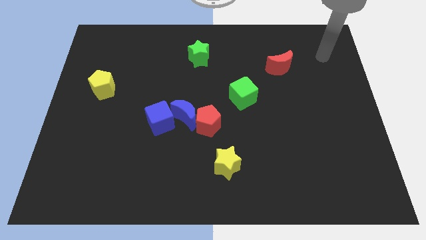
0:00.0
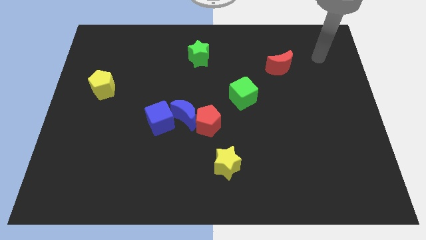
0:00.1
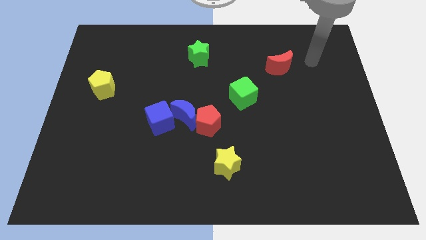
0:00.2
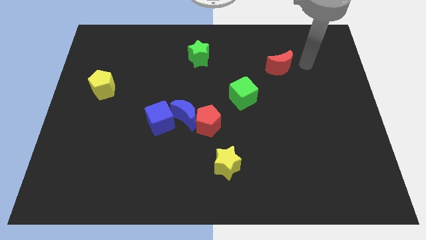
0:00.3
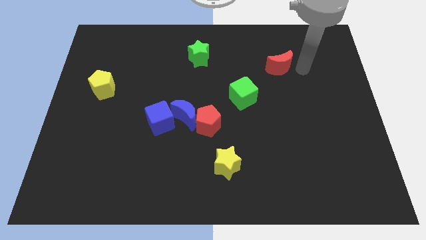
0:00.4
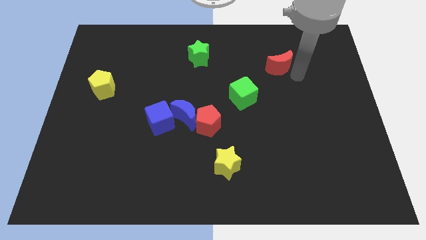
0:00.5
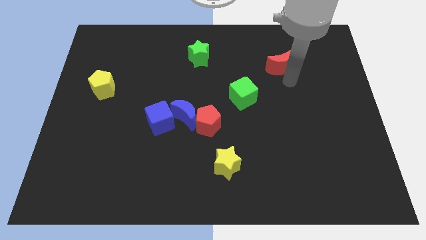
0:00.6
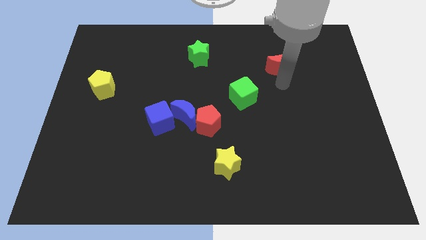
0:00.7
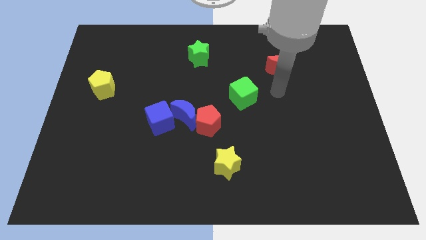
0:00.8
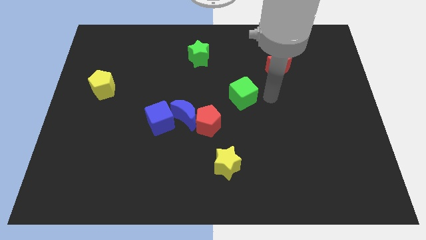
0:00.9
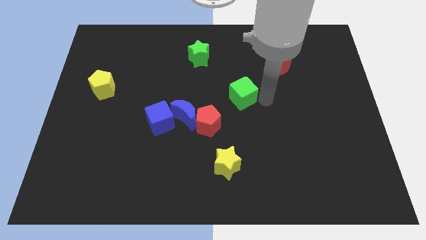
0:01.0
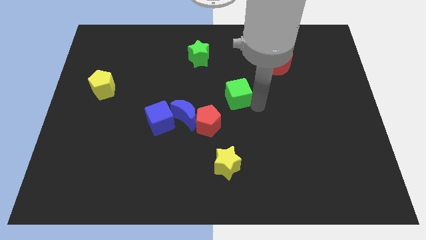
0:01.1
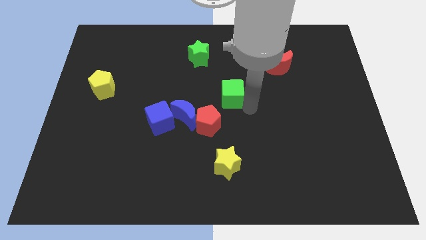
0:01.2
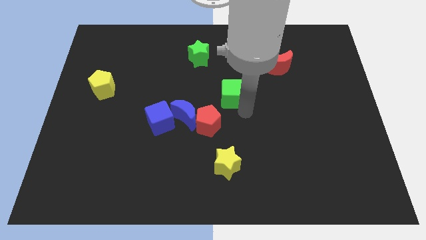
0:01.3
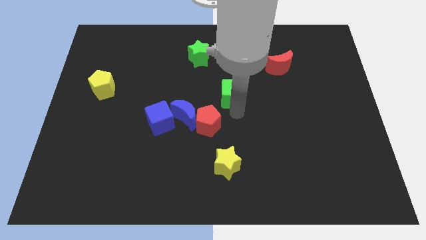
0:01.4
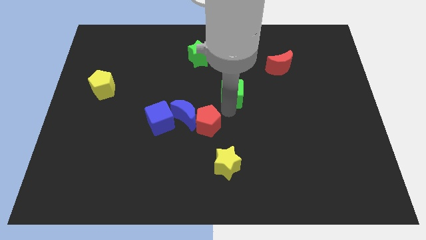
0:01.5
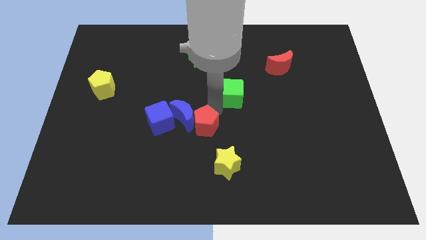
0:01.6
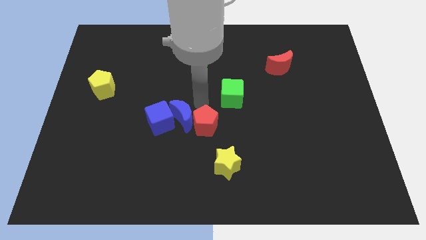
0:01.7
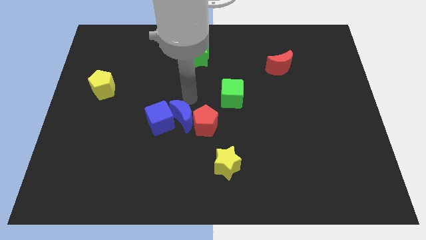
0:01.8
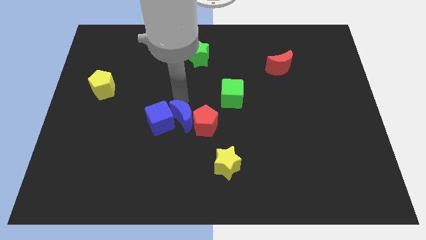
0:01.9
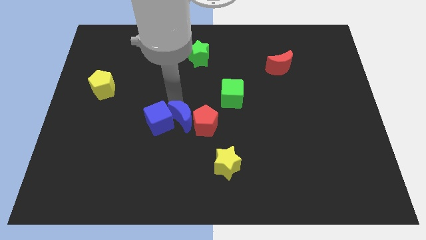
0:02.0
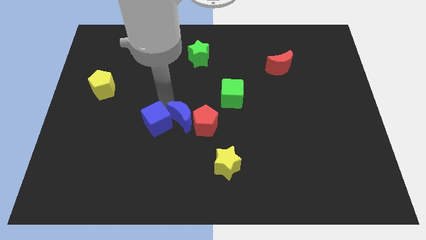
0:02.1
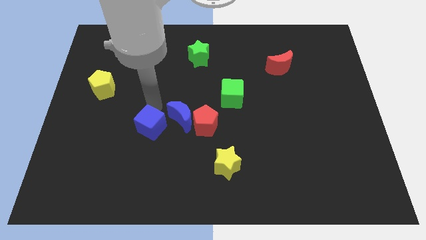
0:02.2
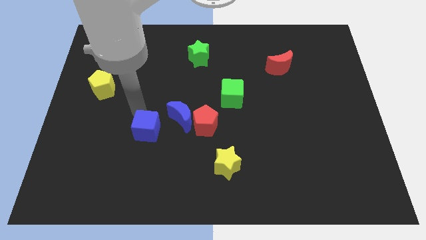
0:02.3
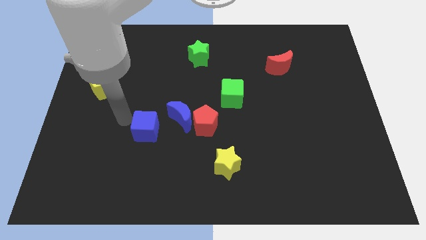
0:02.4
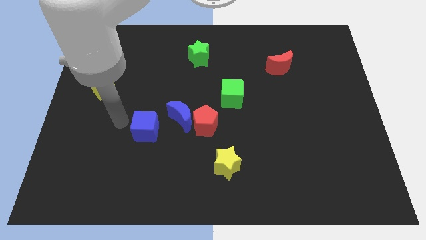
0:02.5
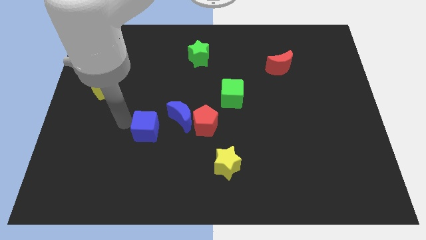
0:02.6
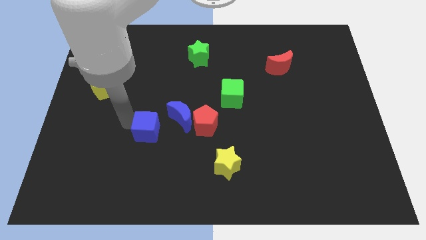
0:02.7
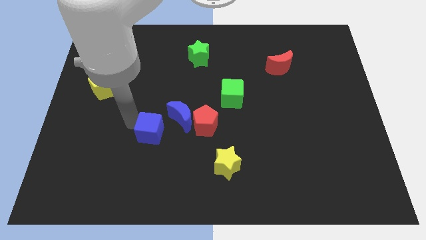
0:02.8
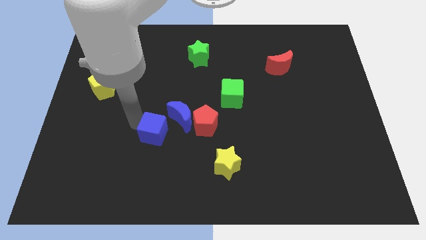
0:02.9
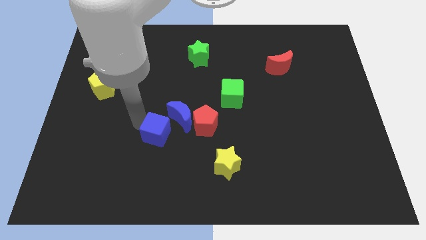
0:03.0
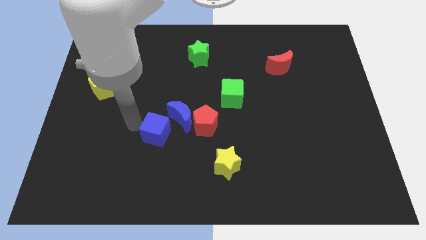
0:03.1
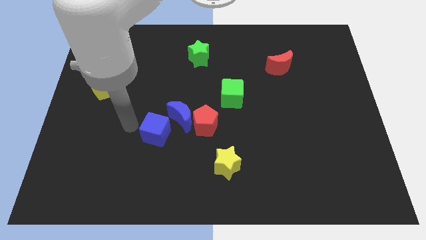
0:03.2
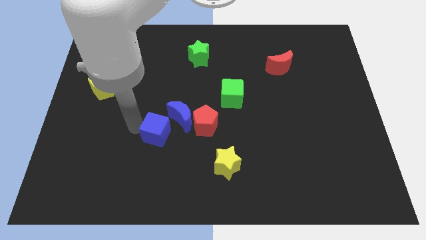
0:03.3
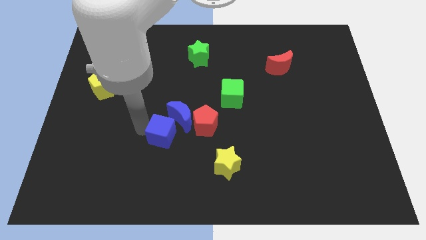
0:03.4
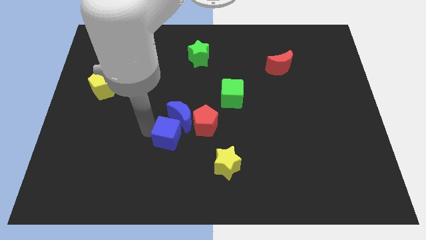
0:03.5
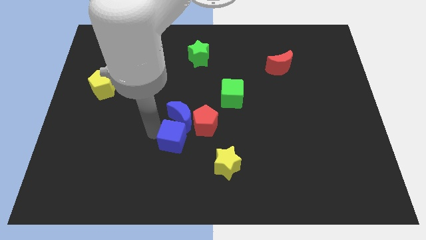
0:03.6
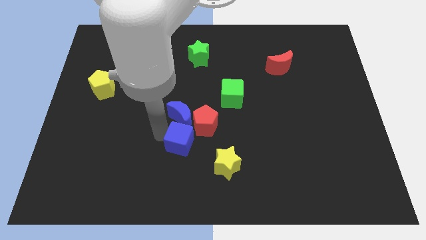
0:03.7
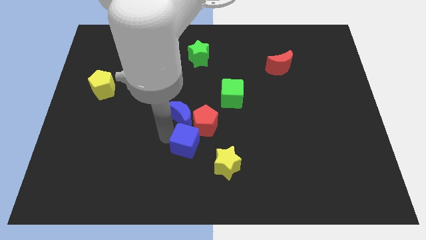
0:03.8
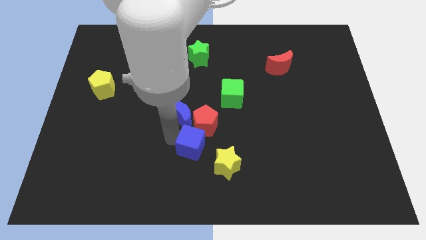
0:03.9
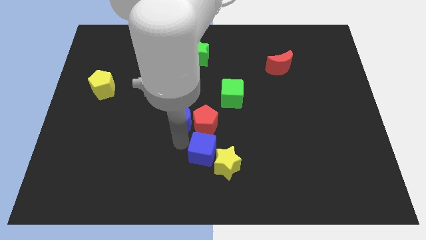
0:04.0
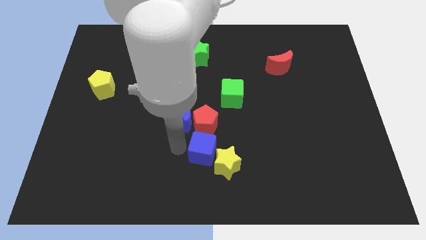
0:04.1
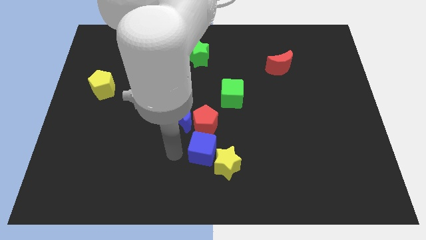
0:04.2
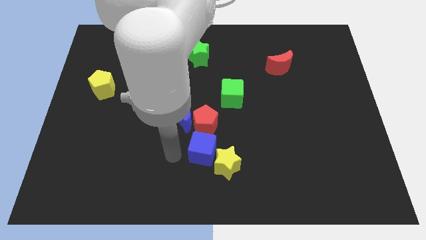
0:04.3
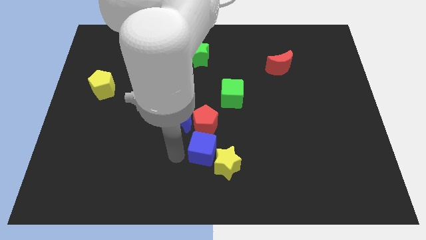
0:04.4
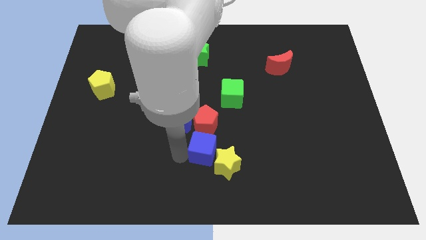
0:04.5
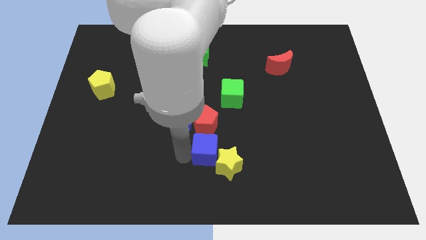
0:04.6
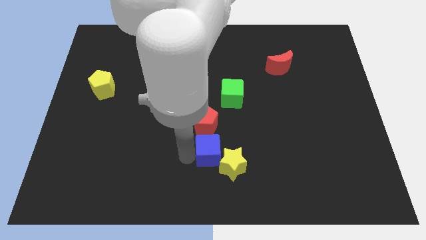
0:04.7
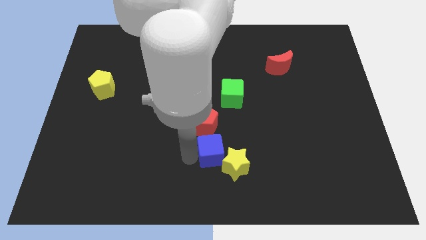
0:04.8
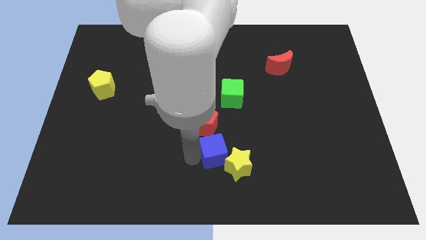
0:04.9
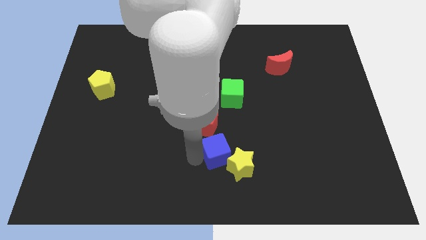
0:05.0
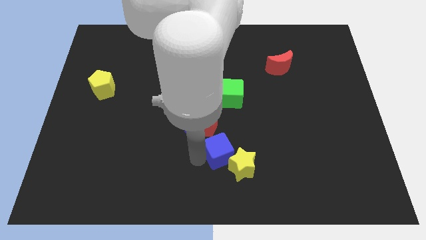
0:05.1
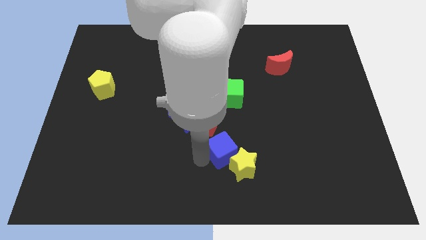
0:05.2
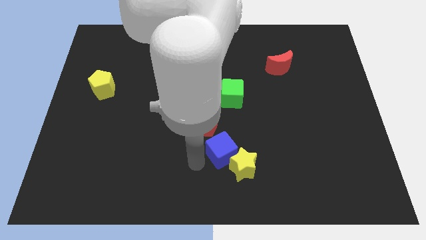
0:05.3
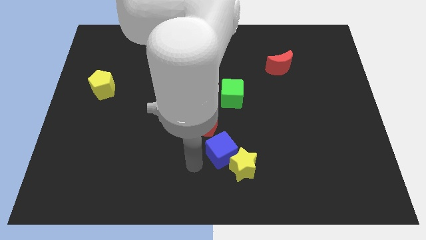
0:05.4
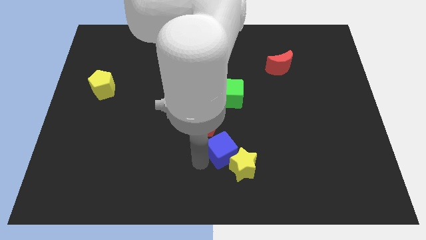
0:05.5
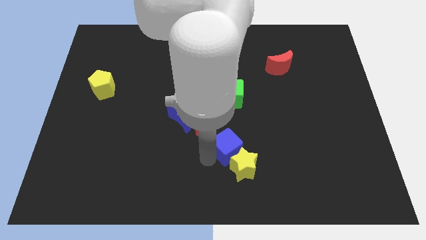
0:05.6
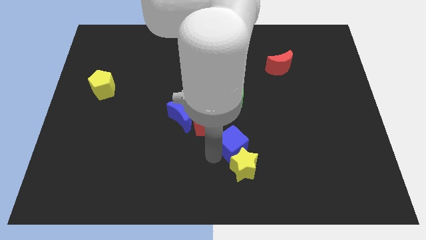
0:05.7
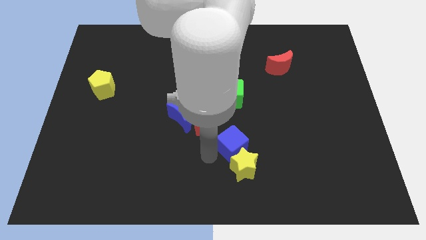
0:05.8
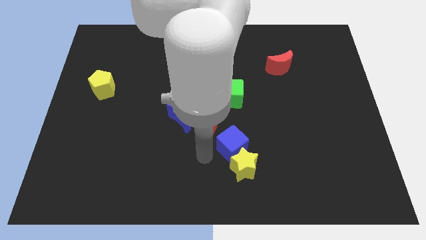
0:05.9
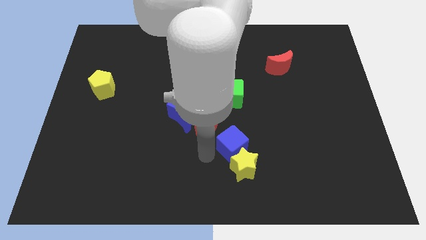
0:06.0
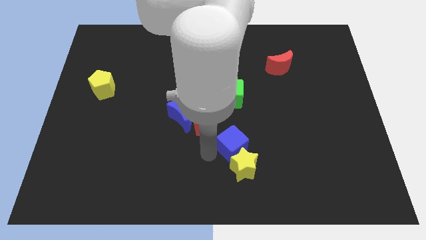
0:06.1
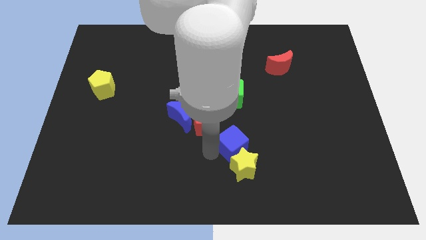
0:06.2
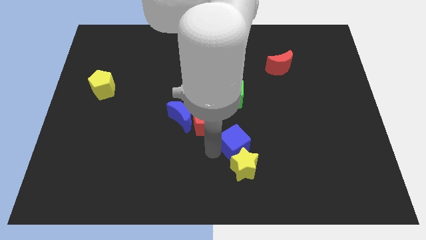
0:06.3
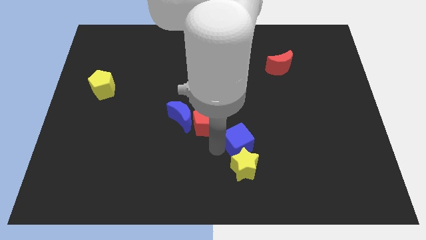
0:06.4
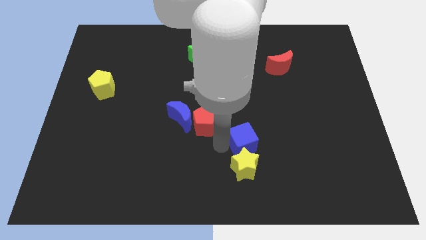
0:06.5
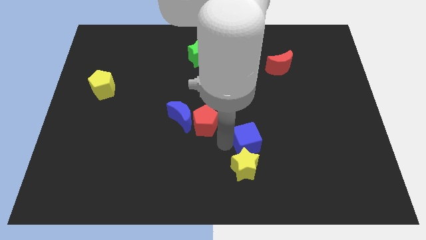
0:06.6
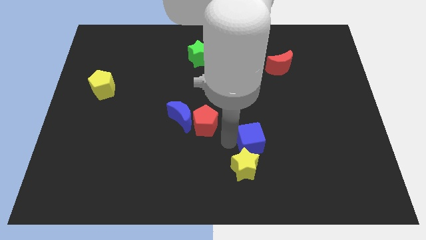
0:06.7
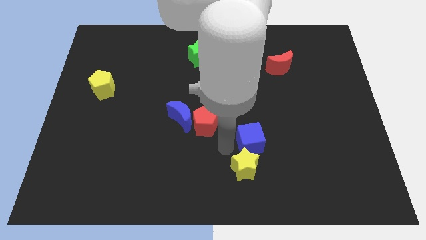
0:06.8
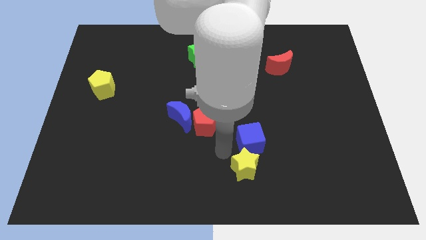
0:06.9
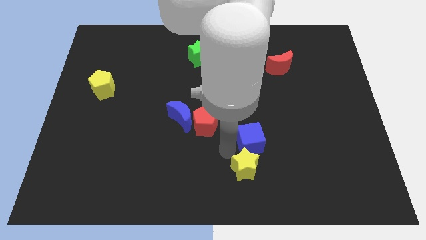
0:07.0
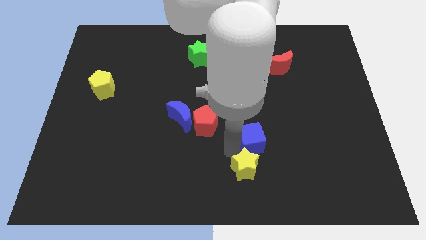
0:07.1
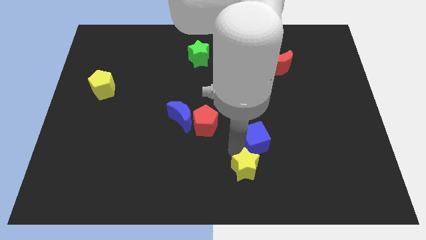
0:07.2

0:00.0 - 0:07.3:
push the blue cube right

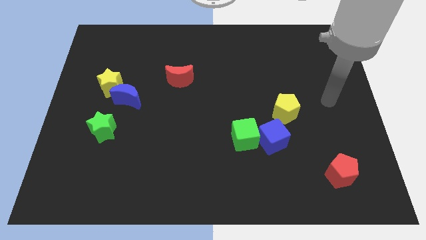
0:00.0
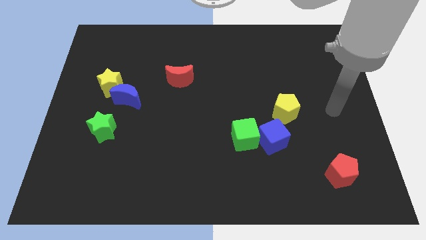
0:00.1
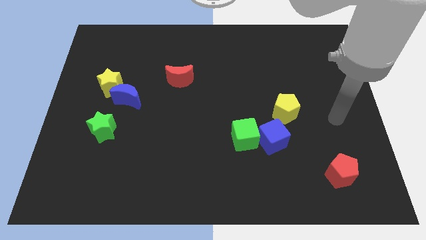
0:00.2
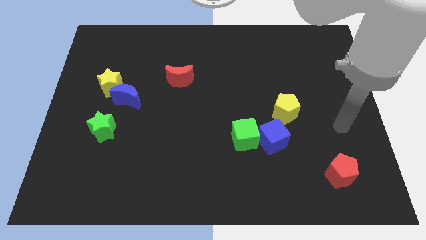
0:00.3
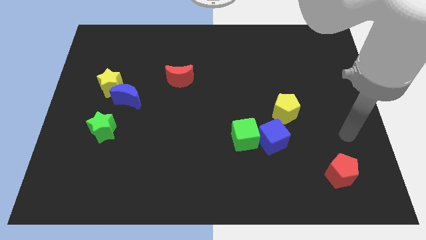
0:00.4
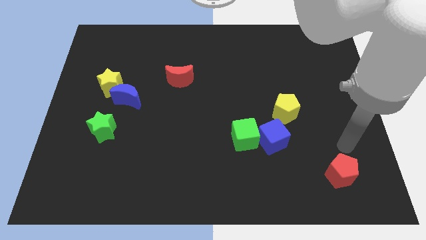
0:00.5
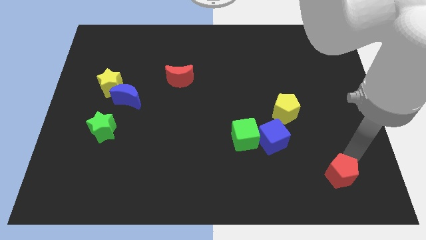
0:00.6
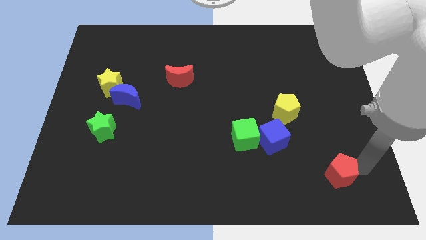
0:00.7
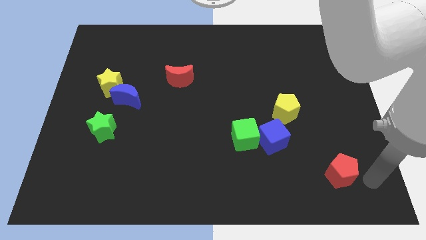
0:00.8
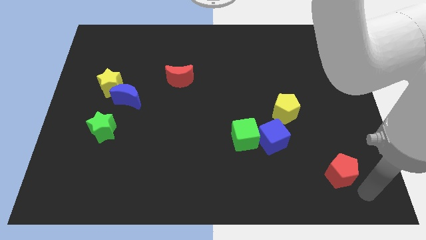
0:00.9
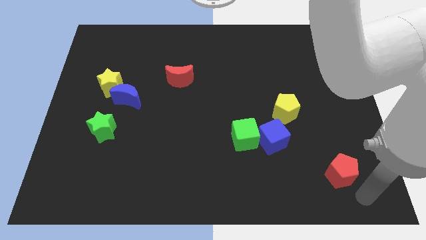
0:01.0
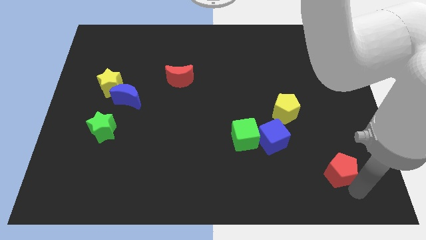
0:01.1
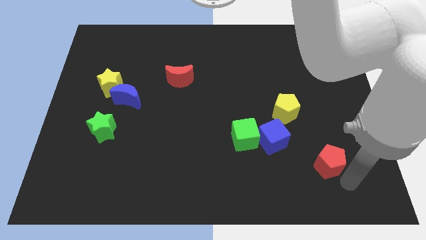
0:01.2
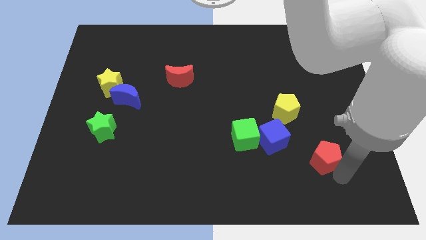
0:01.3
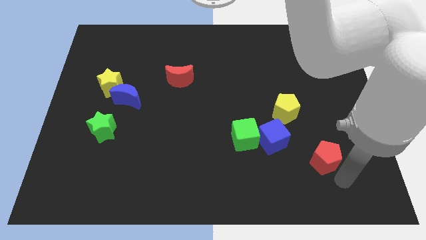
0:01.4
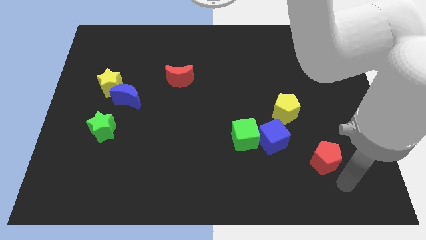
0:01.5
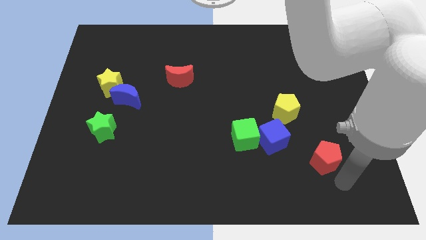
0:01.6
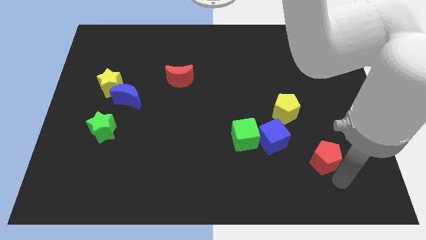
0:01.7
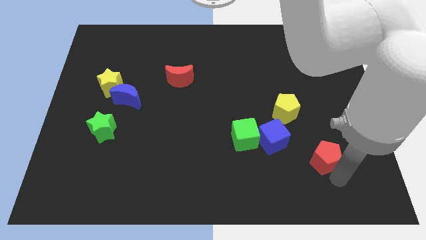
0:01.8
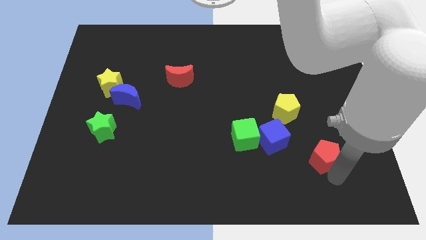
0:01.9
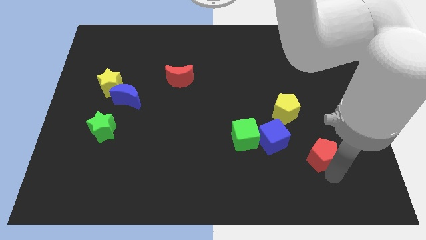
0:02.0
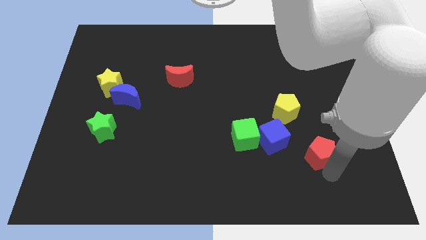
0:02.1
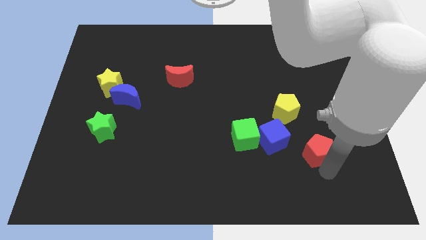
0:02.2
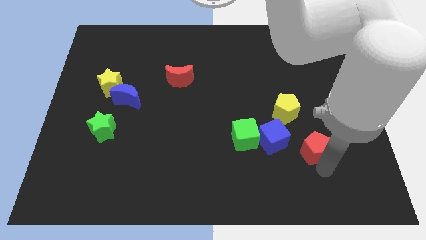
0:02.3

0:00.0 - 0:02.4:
slightly push the red pentagon upwards and then to the left
